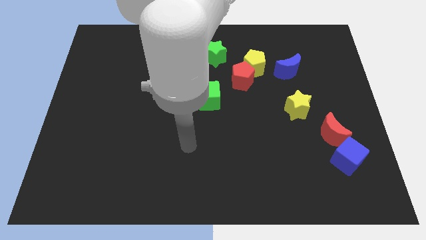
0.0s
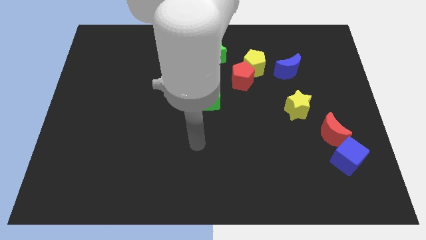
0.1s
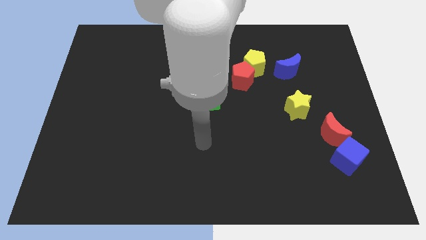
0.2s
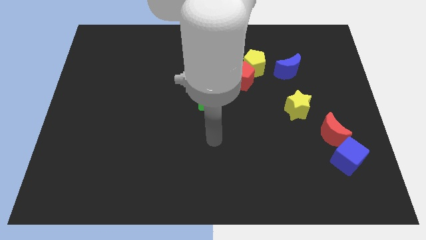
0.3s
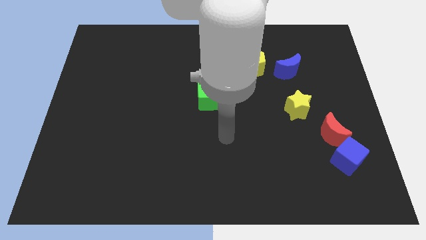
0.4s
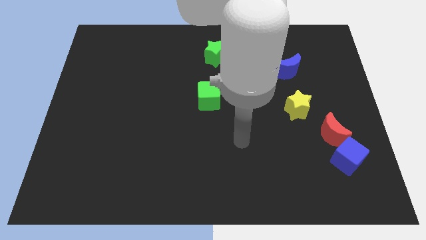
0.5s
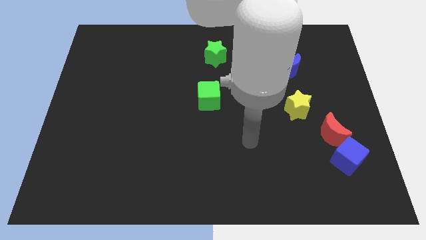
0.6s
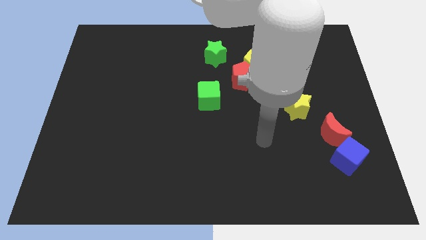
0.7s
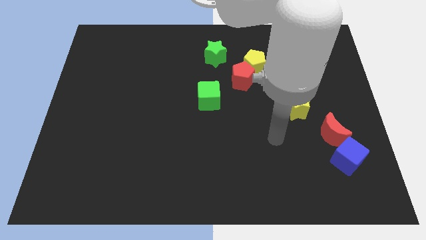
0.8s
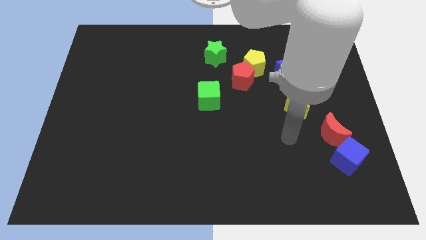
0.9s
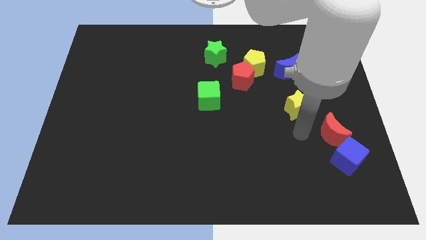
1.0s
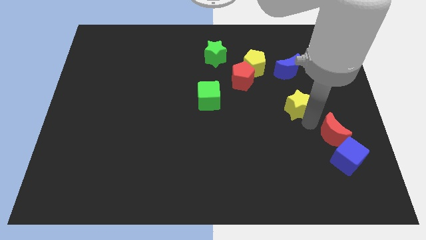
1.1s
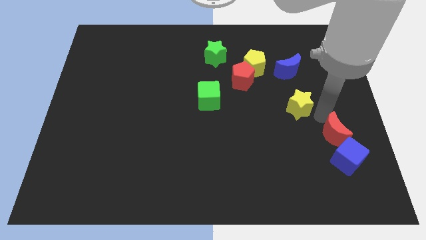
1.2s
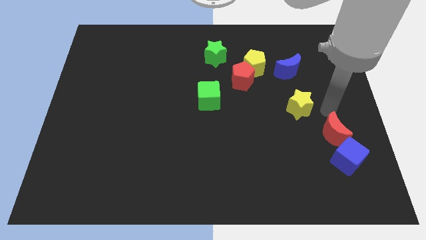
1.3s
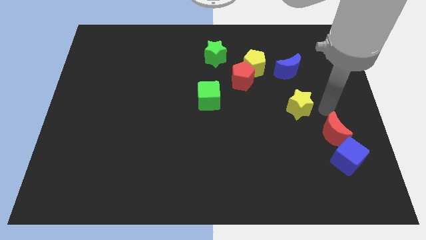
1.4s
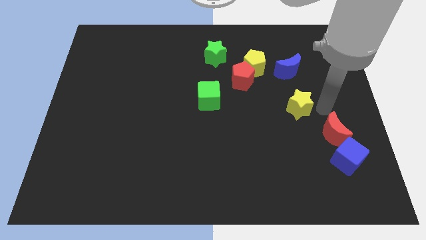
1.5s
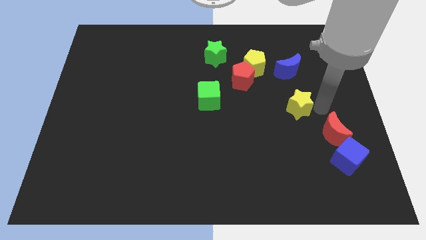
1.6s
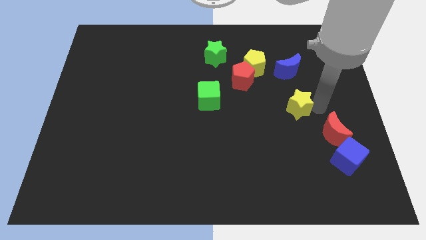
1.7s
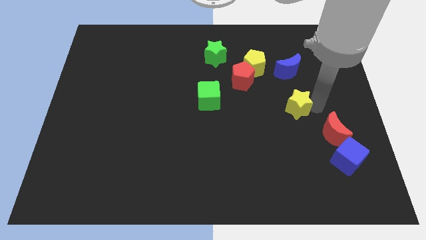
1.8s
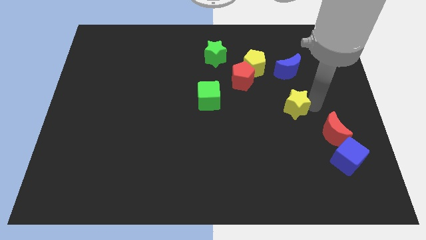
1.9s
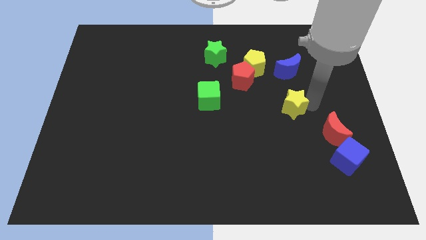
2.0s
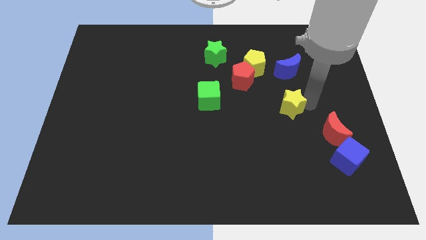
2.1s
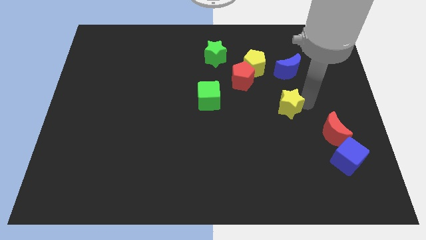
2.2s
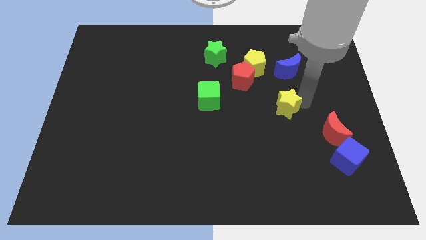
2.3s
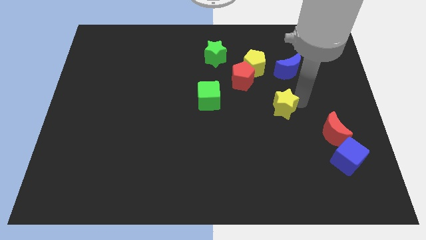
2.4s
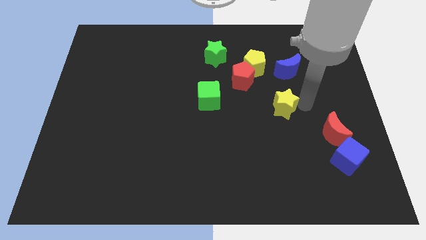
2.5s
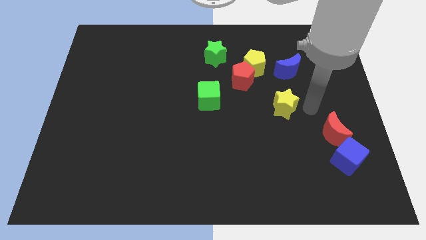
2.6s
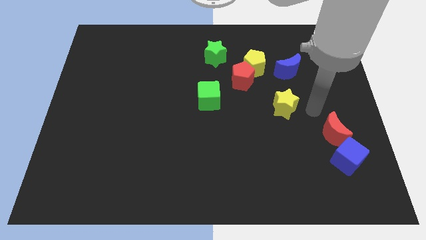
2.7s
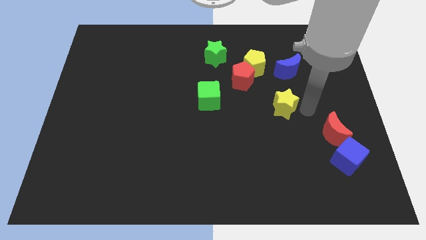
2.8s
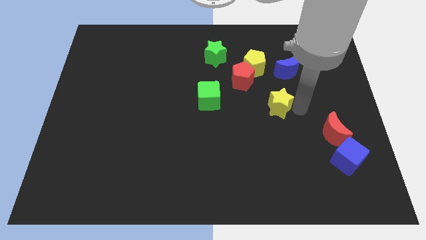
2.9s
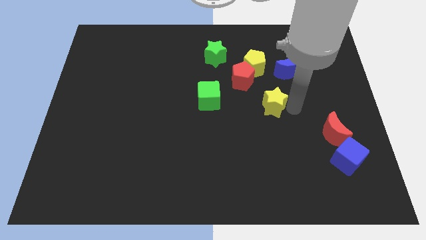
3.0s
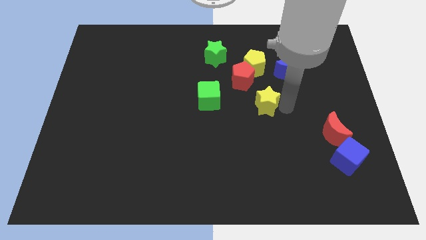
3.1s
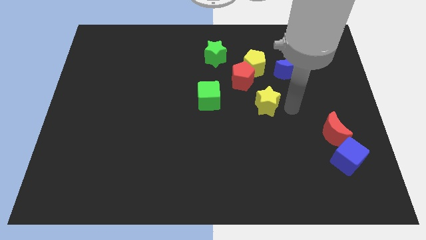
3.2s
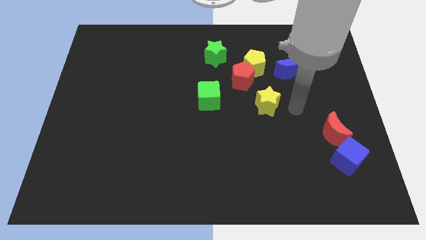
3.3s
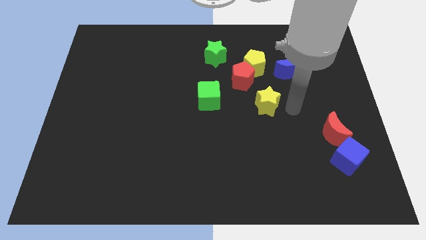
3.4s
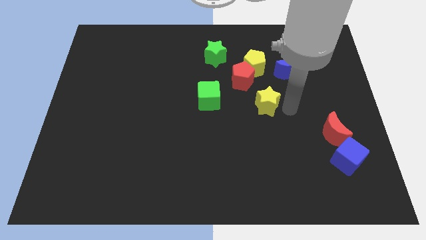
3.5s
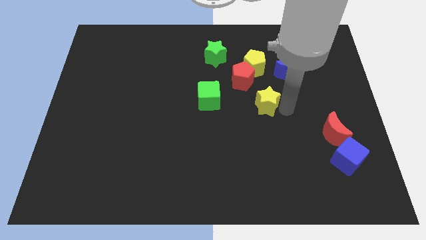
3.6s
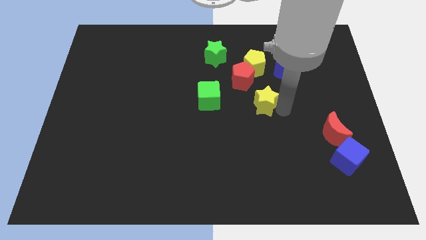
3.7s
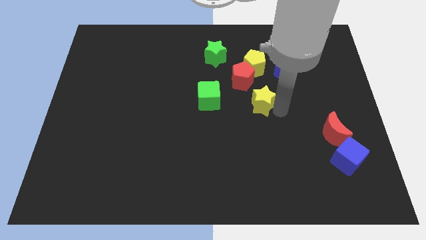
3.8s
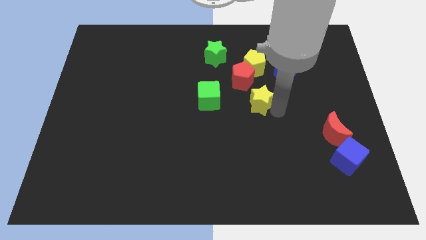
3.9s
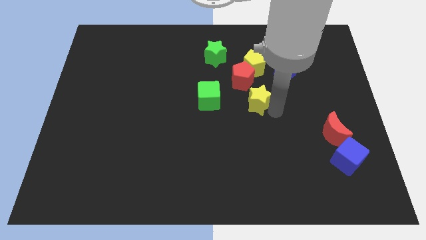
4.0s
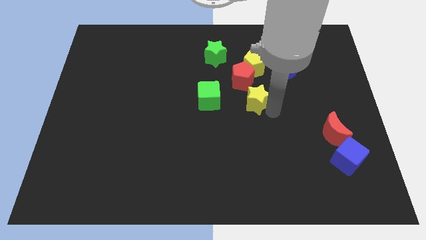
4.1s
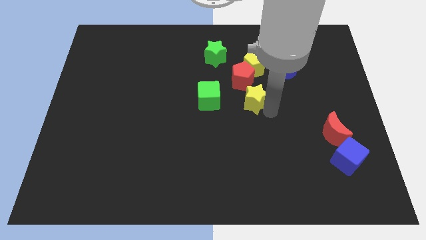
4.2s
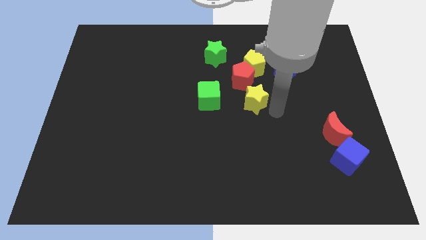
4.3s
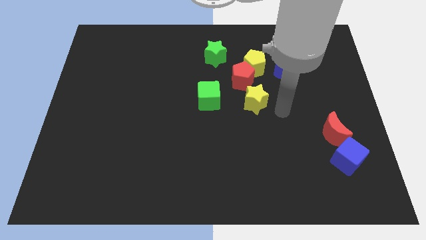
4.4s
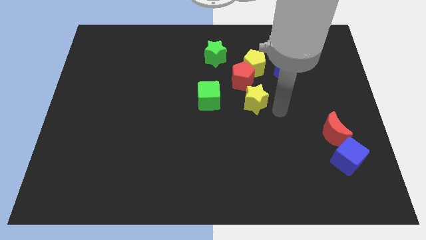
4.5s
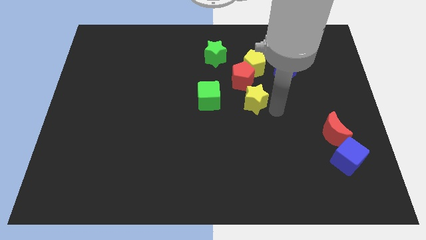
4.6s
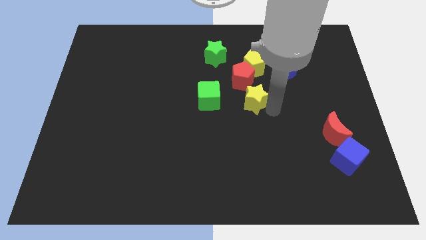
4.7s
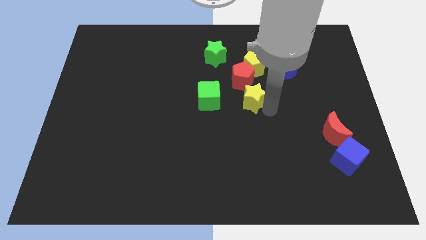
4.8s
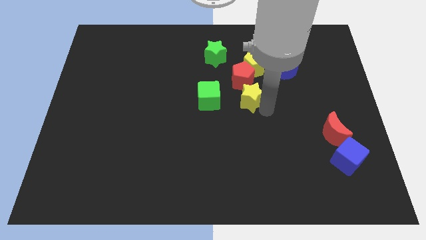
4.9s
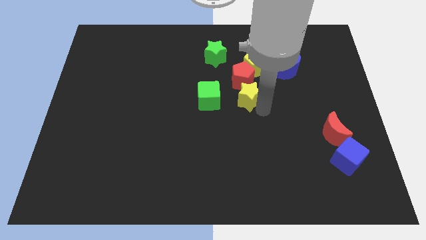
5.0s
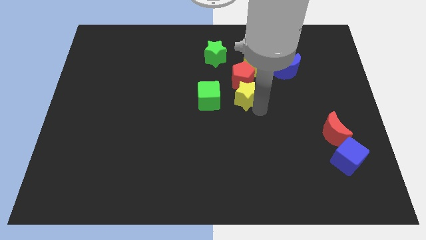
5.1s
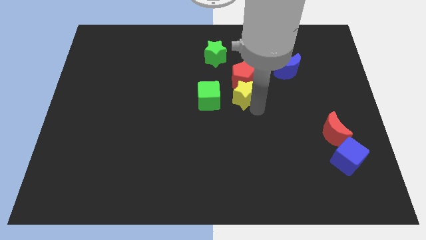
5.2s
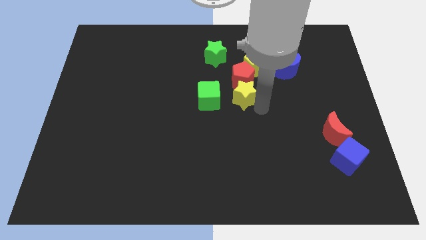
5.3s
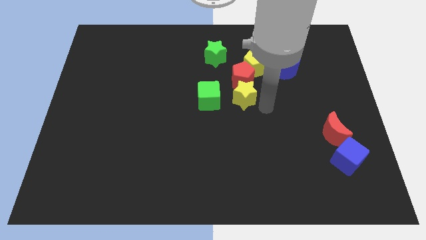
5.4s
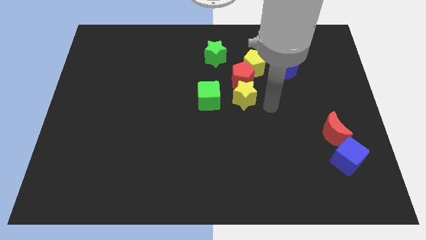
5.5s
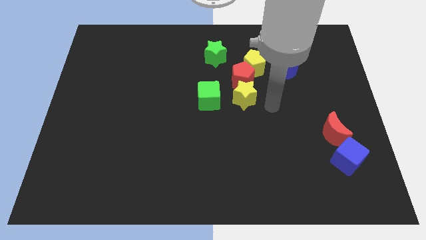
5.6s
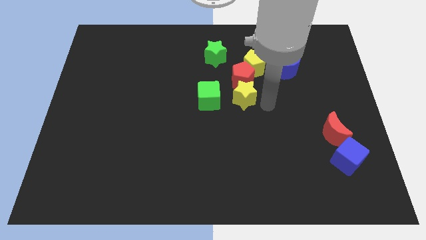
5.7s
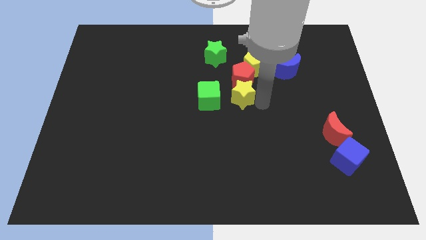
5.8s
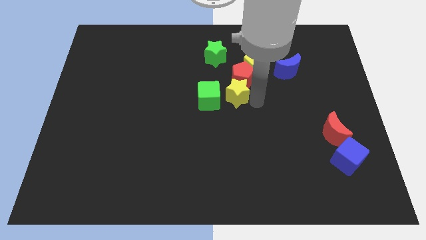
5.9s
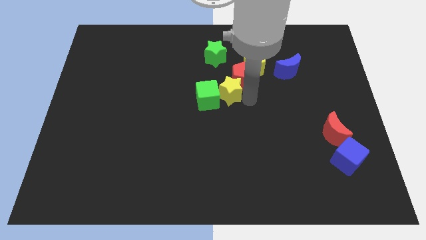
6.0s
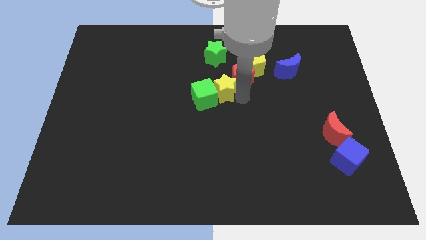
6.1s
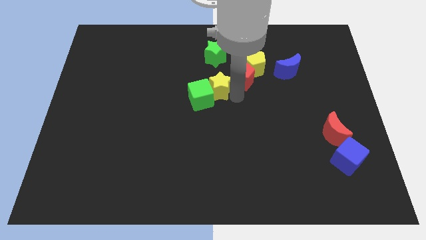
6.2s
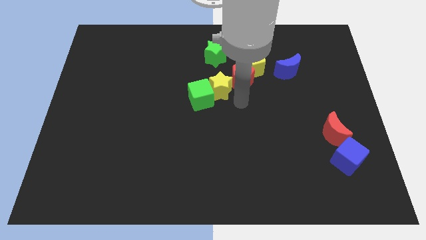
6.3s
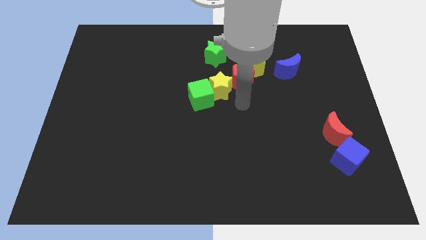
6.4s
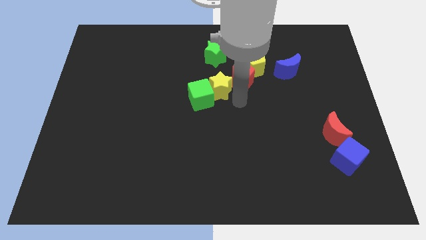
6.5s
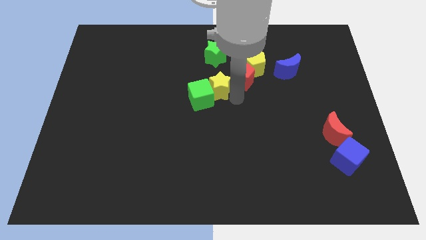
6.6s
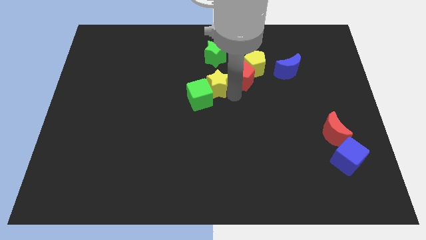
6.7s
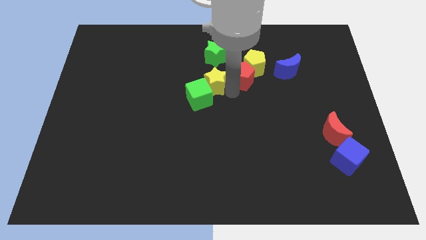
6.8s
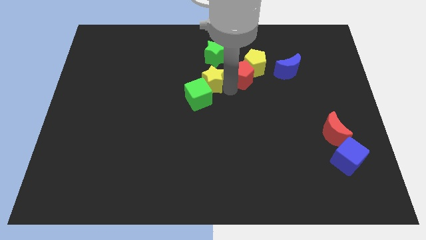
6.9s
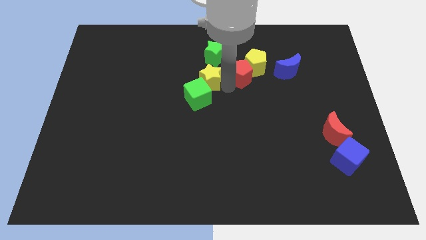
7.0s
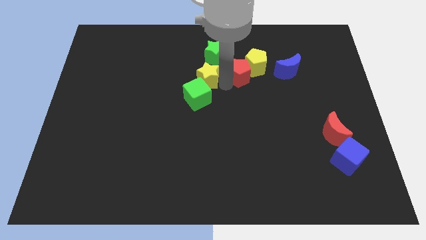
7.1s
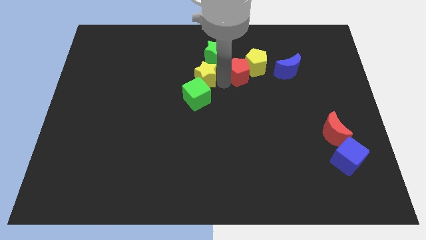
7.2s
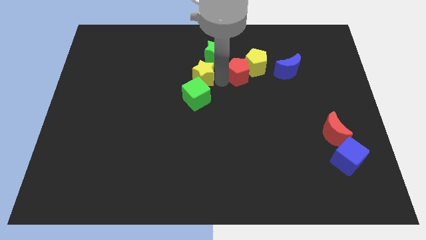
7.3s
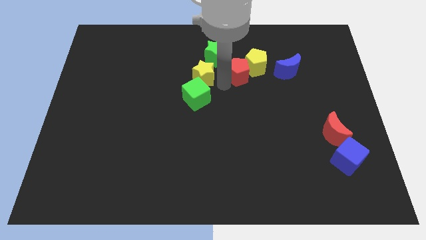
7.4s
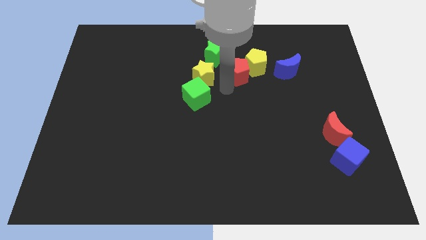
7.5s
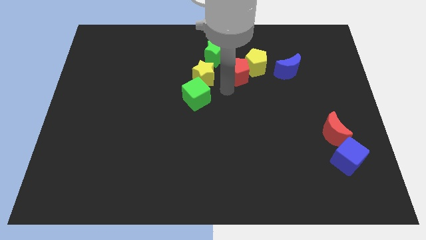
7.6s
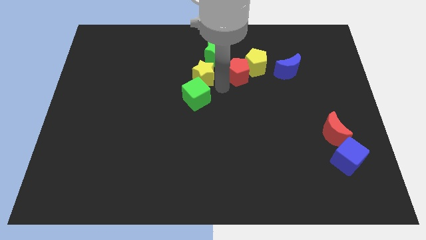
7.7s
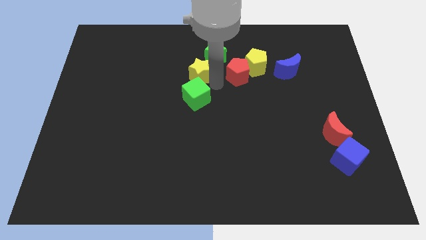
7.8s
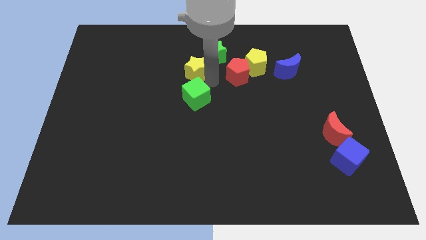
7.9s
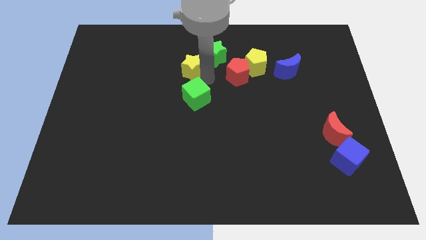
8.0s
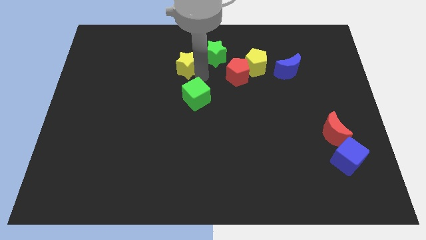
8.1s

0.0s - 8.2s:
move the yellow star left of the green star
